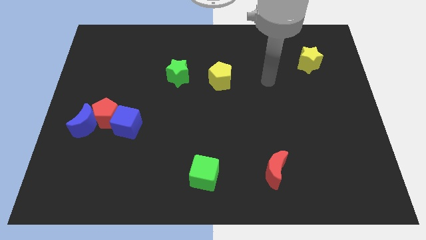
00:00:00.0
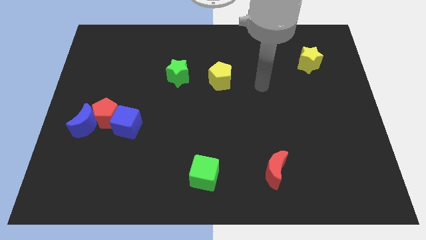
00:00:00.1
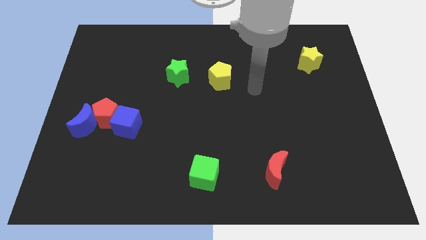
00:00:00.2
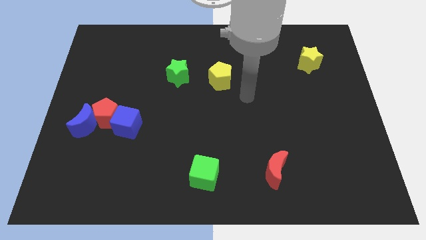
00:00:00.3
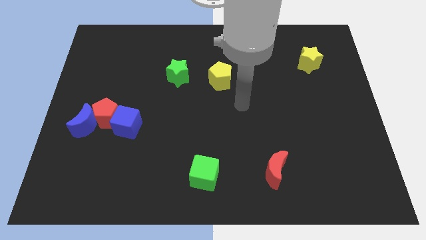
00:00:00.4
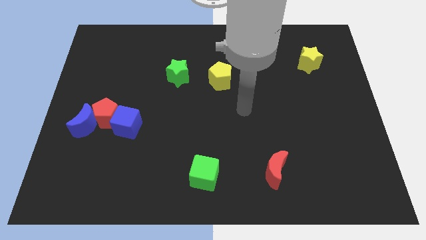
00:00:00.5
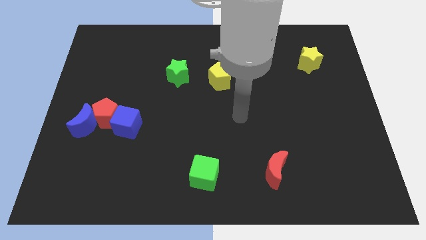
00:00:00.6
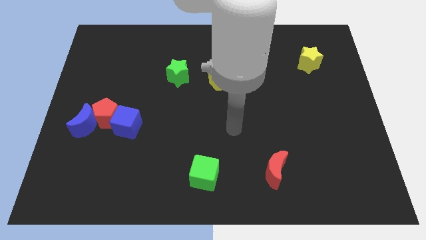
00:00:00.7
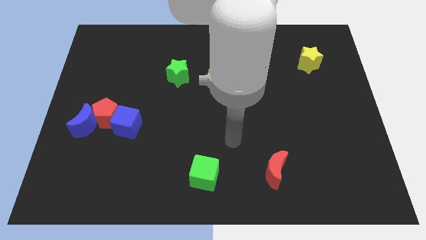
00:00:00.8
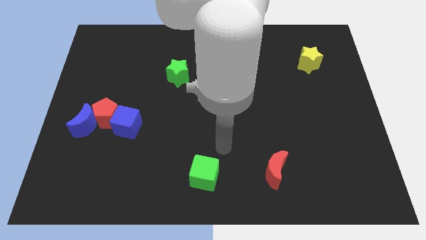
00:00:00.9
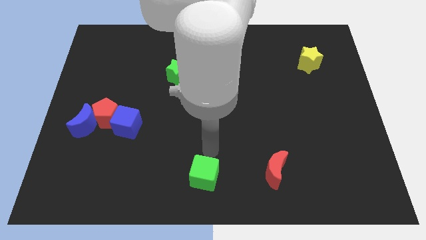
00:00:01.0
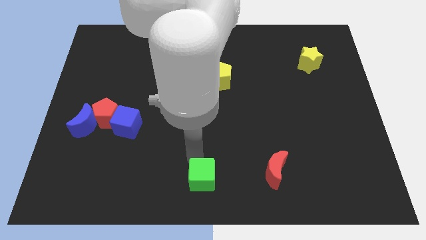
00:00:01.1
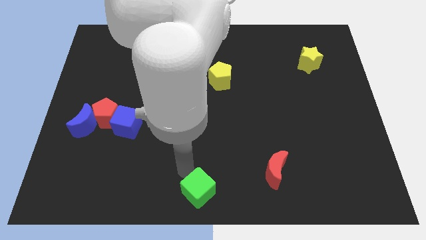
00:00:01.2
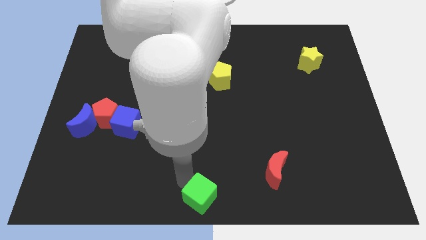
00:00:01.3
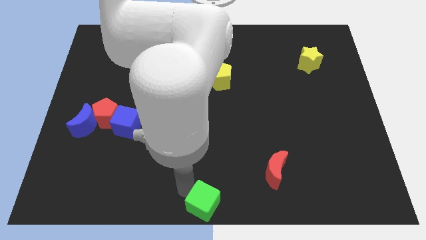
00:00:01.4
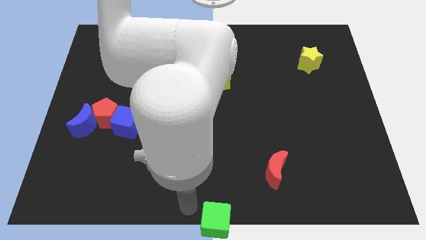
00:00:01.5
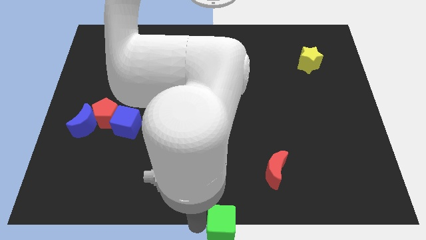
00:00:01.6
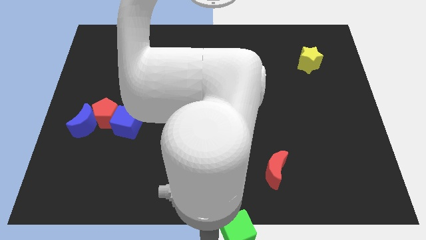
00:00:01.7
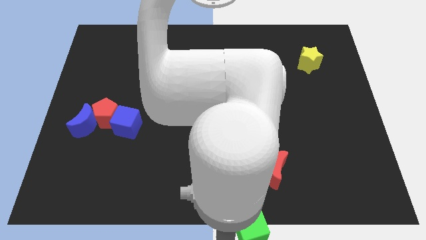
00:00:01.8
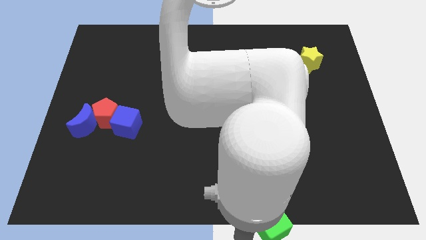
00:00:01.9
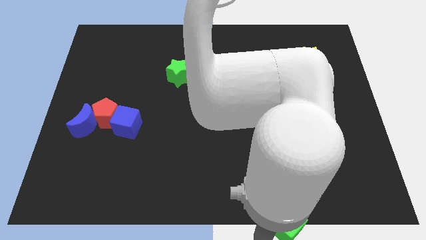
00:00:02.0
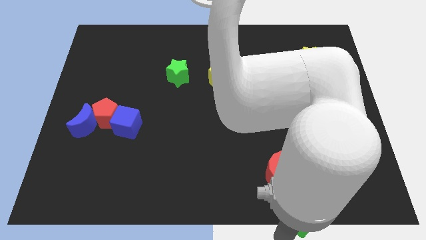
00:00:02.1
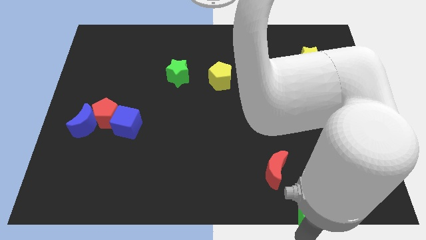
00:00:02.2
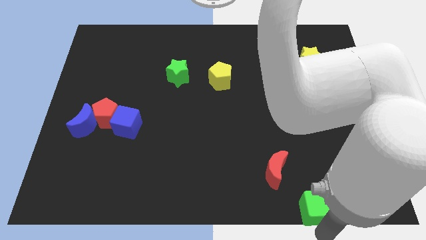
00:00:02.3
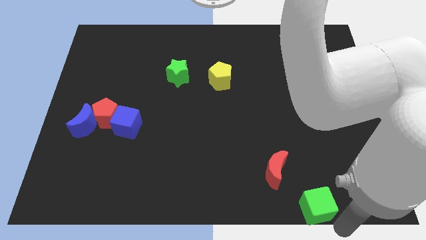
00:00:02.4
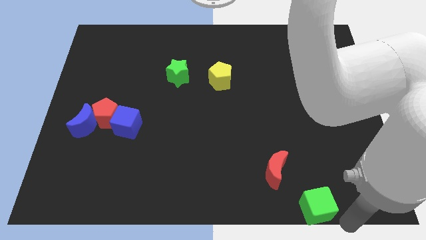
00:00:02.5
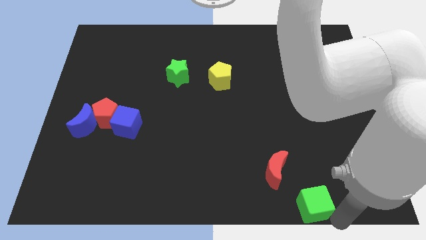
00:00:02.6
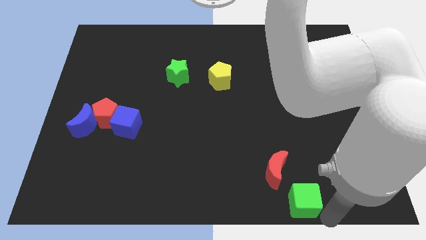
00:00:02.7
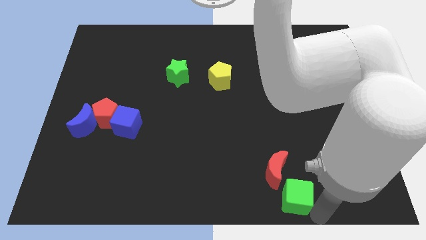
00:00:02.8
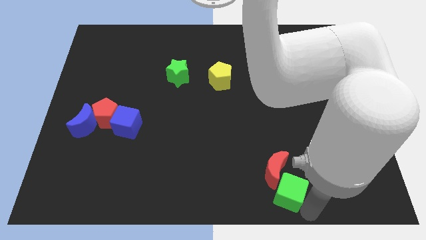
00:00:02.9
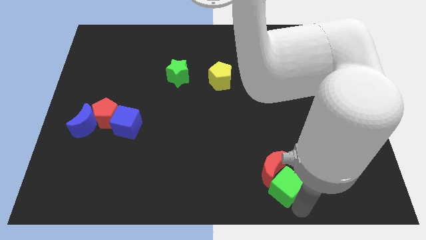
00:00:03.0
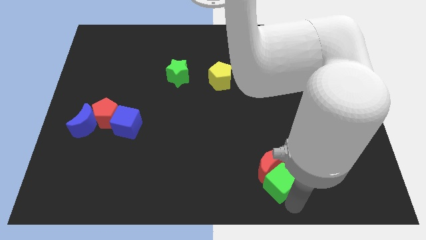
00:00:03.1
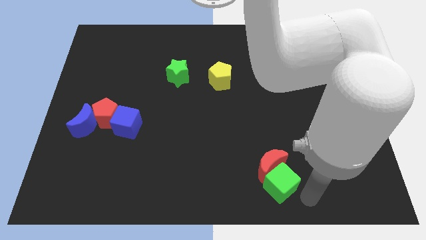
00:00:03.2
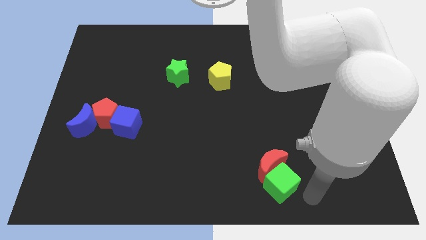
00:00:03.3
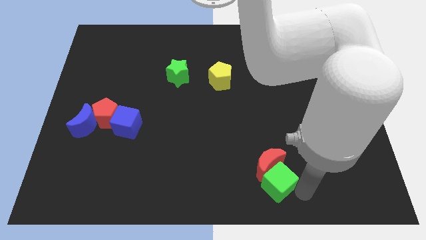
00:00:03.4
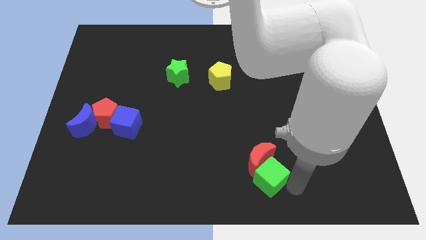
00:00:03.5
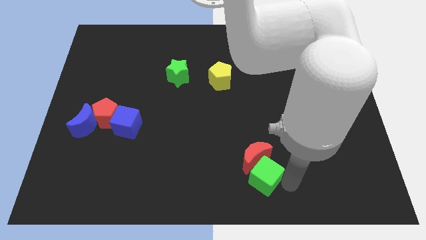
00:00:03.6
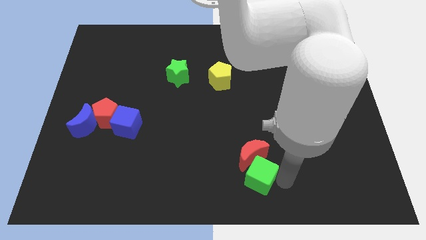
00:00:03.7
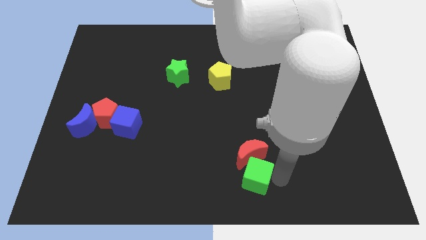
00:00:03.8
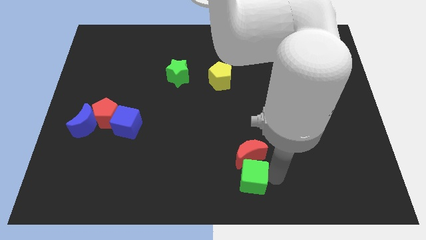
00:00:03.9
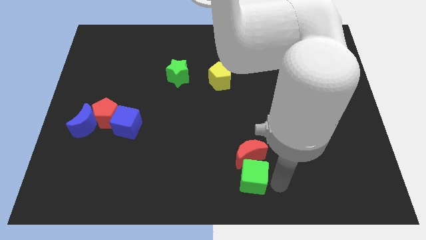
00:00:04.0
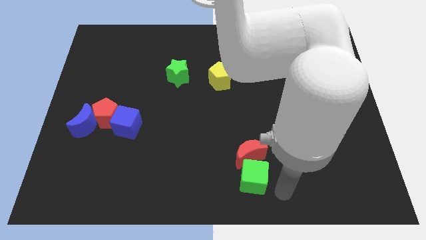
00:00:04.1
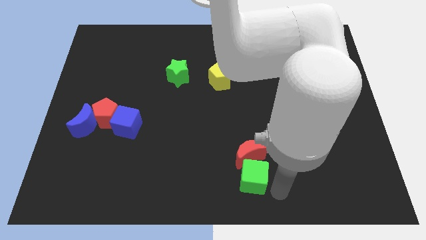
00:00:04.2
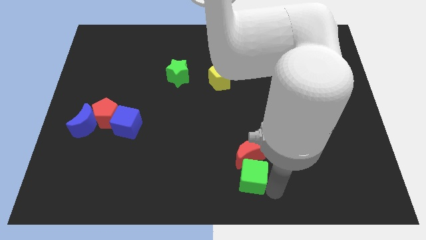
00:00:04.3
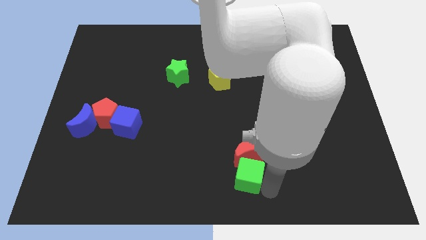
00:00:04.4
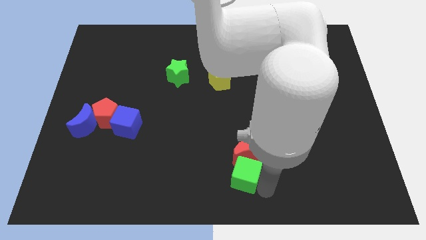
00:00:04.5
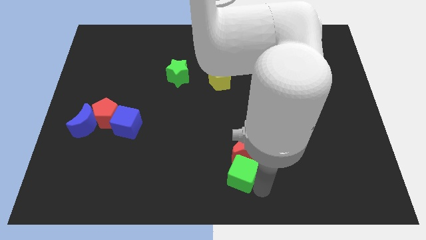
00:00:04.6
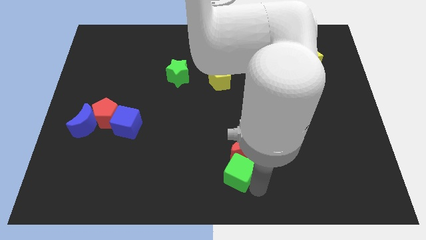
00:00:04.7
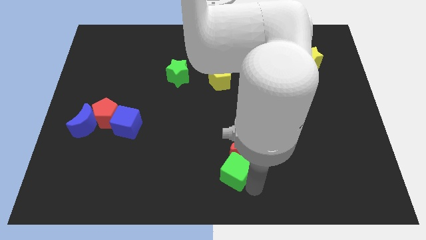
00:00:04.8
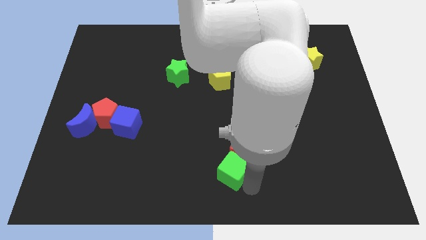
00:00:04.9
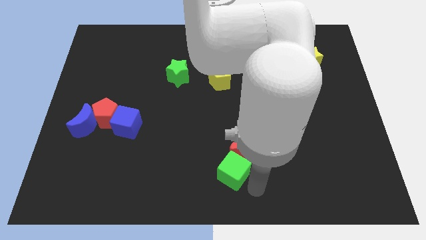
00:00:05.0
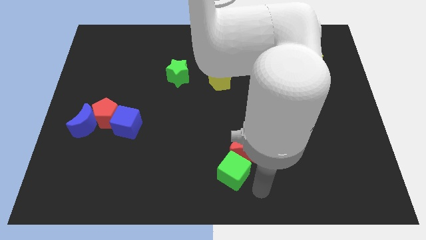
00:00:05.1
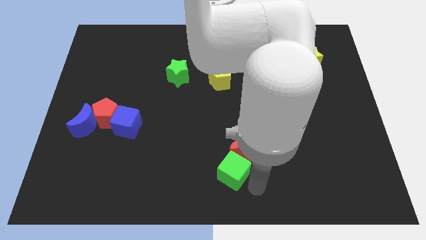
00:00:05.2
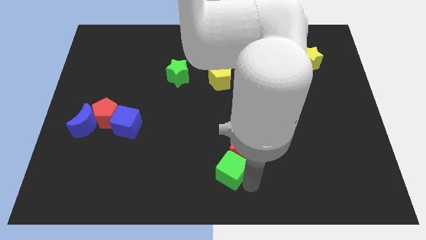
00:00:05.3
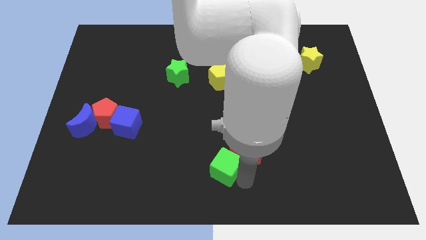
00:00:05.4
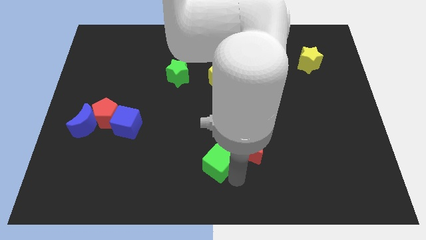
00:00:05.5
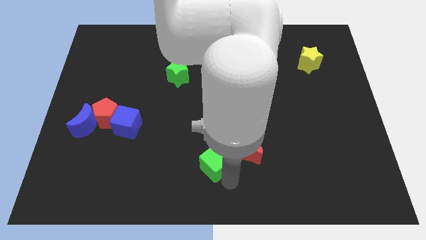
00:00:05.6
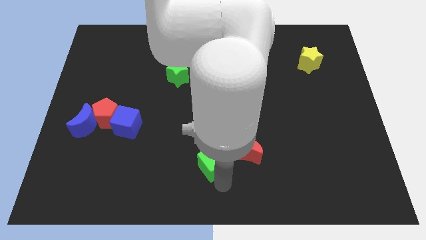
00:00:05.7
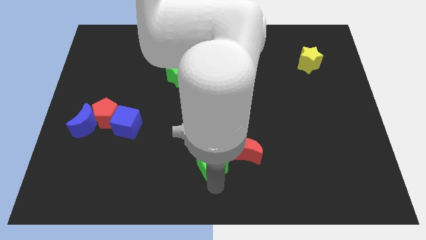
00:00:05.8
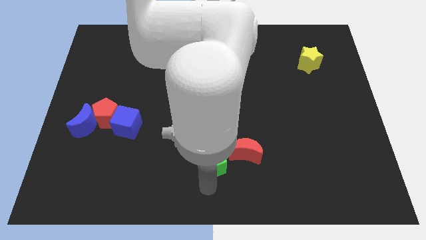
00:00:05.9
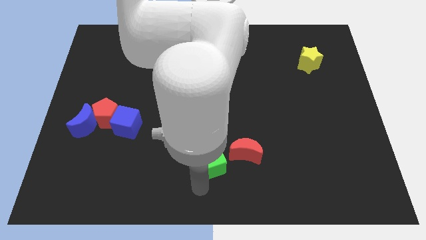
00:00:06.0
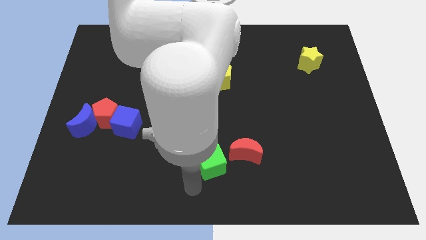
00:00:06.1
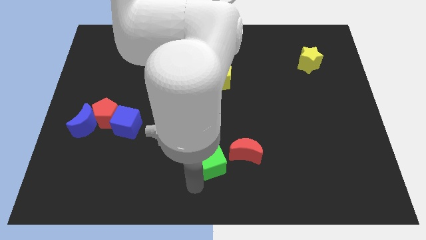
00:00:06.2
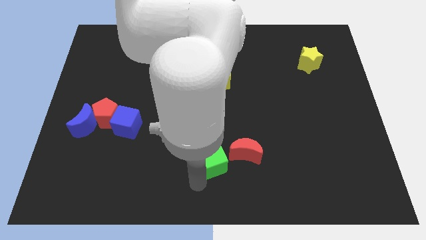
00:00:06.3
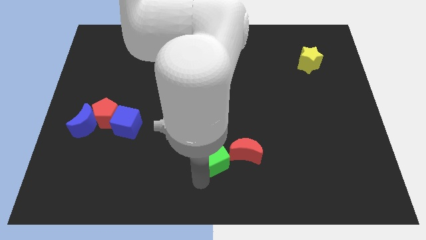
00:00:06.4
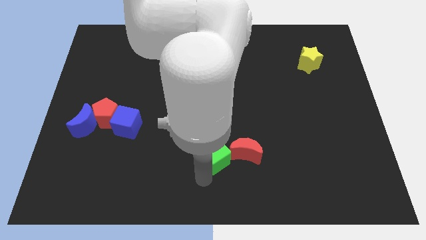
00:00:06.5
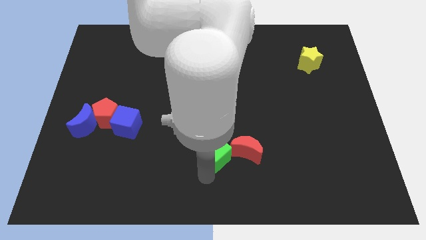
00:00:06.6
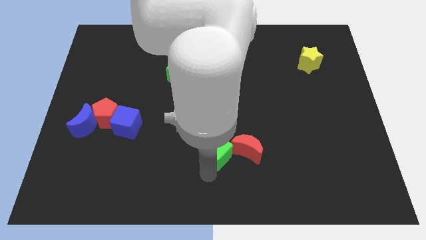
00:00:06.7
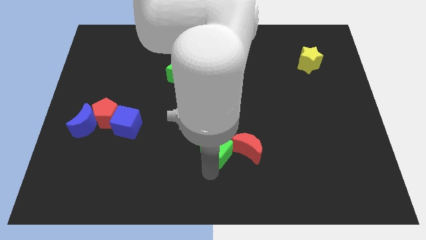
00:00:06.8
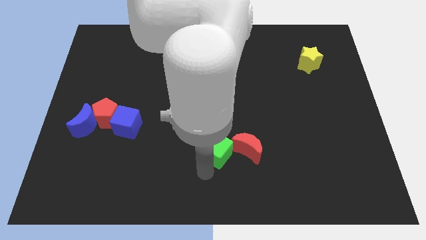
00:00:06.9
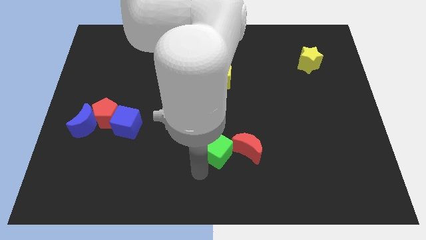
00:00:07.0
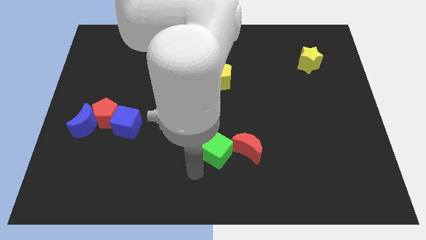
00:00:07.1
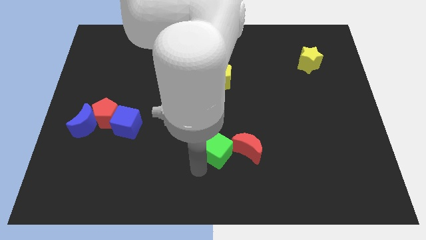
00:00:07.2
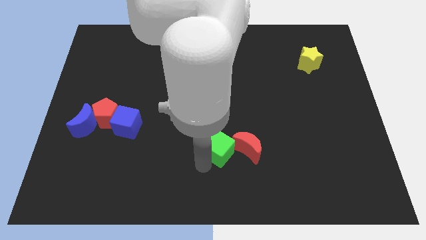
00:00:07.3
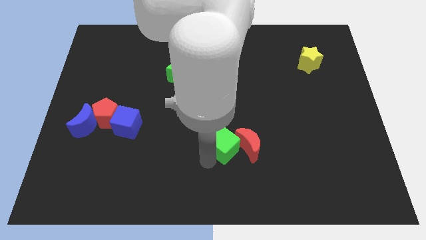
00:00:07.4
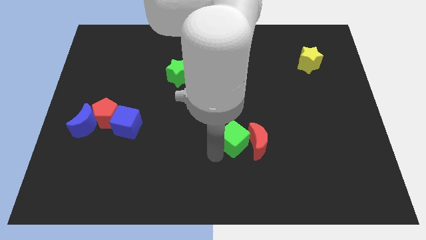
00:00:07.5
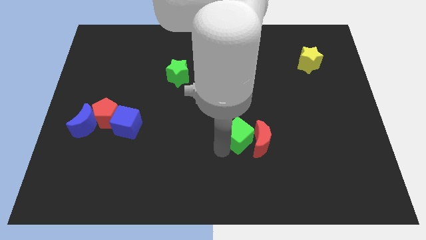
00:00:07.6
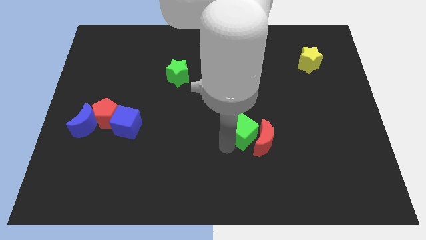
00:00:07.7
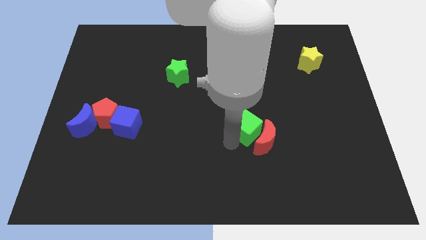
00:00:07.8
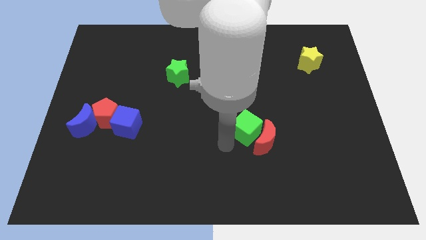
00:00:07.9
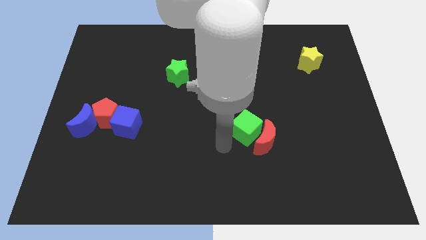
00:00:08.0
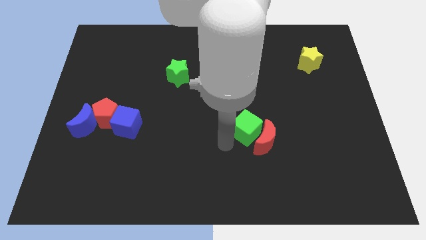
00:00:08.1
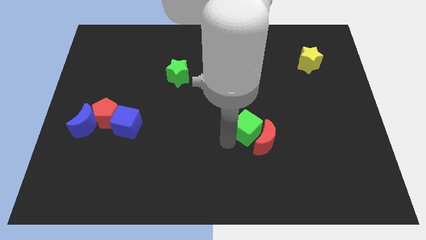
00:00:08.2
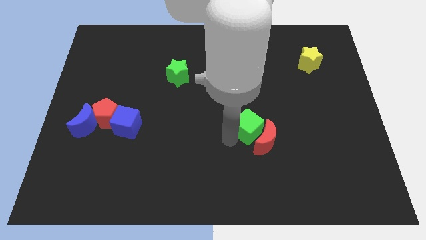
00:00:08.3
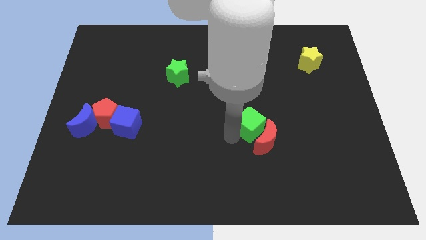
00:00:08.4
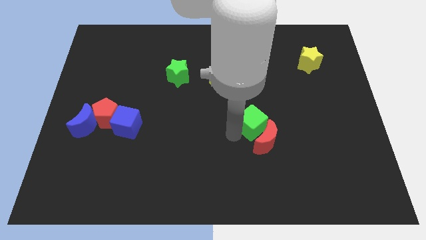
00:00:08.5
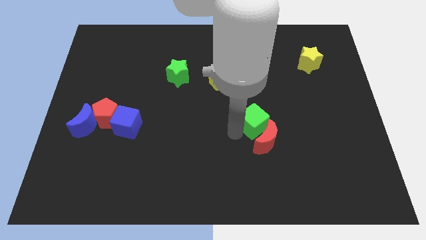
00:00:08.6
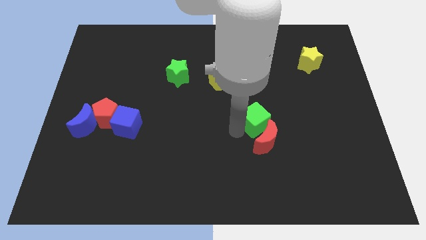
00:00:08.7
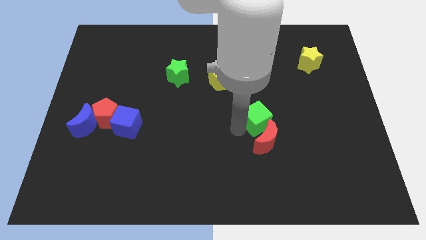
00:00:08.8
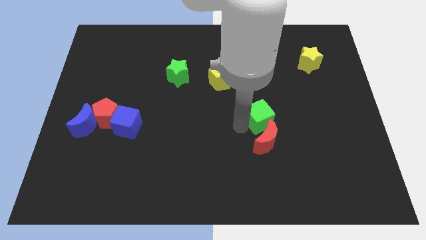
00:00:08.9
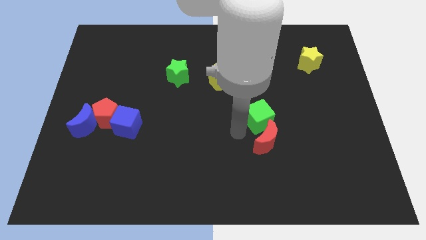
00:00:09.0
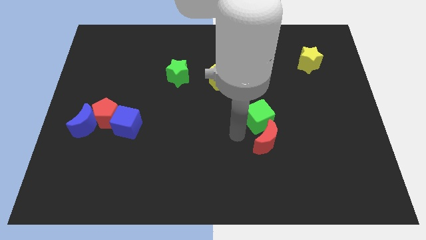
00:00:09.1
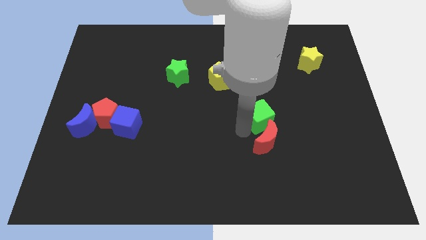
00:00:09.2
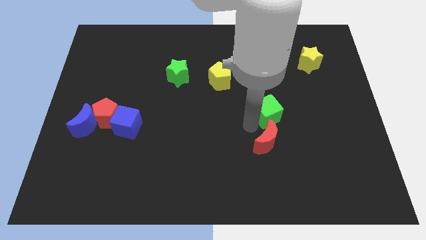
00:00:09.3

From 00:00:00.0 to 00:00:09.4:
move the green cube upwards and to the right
